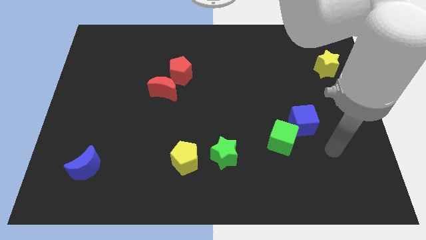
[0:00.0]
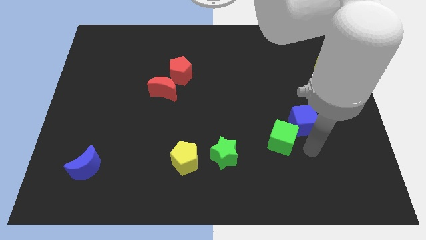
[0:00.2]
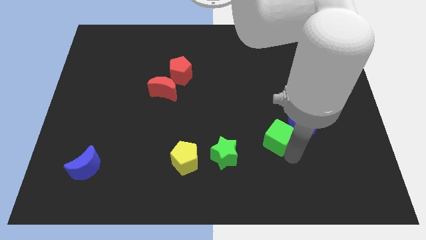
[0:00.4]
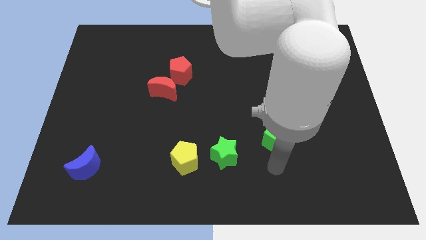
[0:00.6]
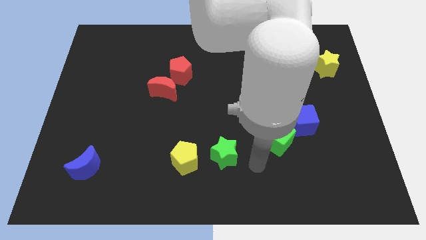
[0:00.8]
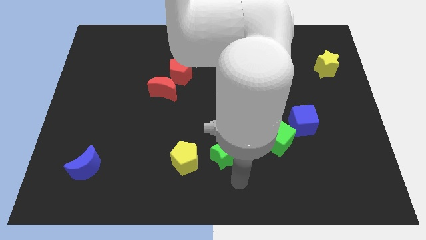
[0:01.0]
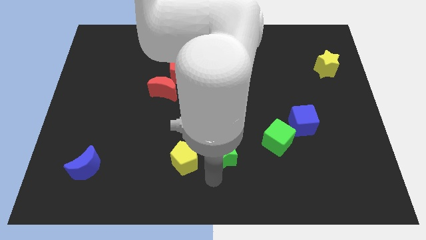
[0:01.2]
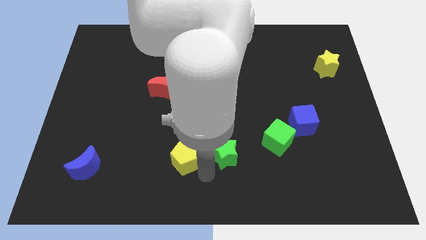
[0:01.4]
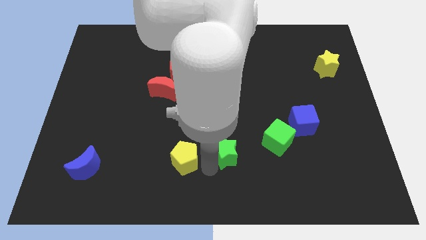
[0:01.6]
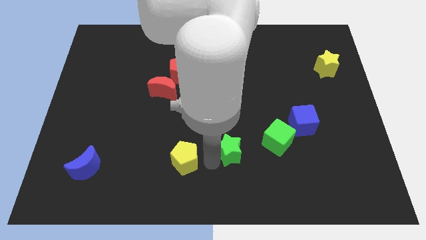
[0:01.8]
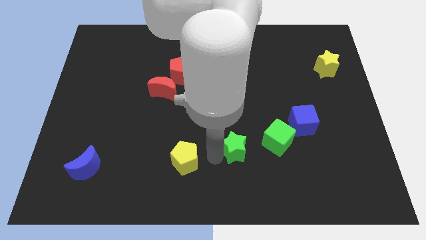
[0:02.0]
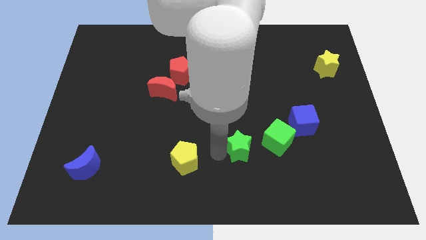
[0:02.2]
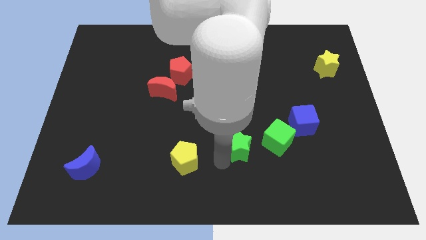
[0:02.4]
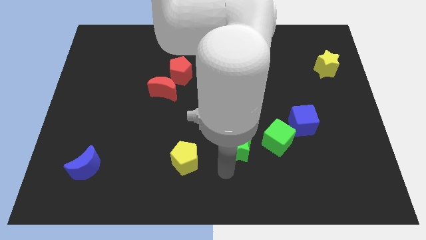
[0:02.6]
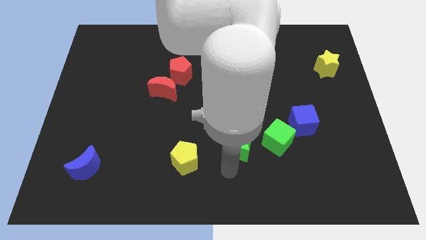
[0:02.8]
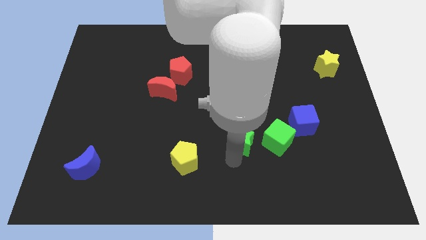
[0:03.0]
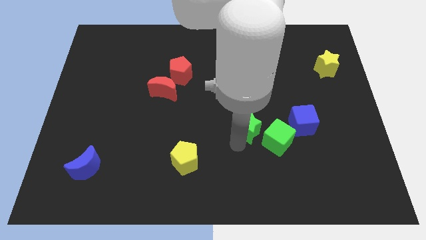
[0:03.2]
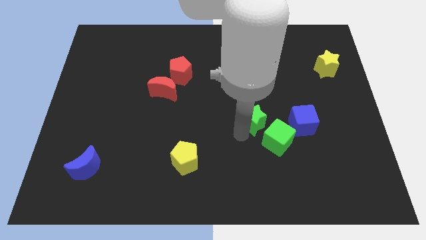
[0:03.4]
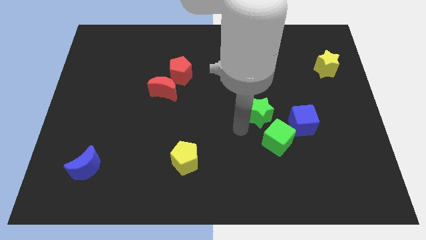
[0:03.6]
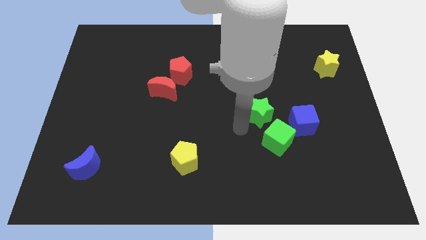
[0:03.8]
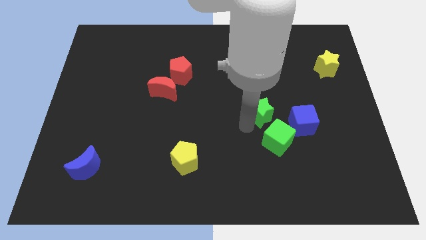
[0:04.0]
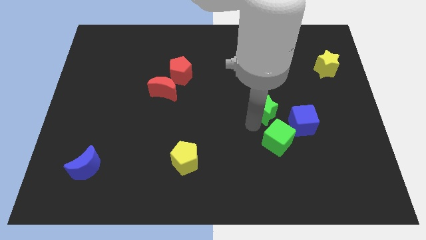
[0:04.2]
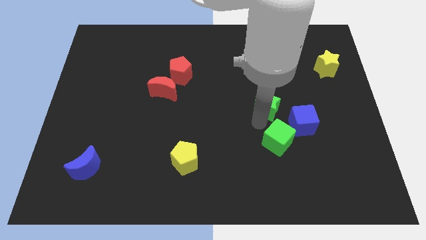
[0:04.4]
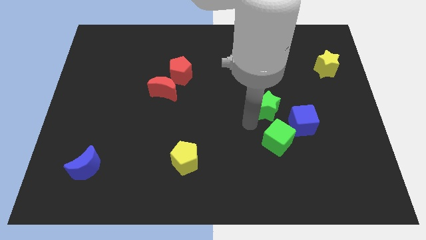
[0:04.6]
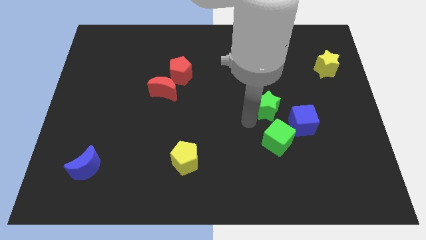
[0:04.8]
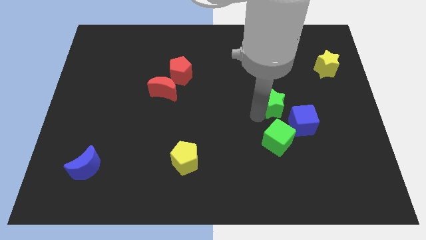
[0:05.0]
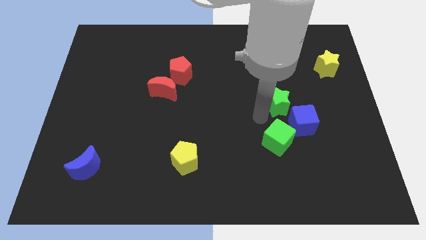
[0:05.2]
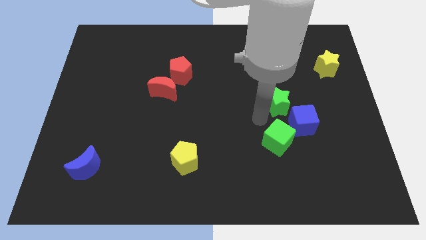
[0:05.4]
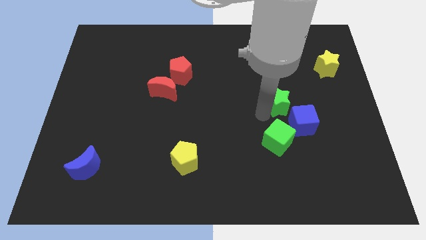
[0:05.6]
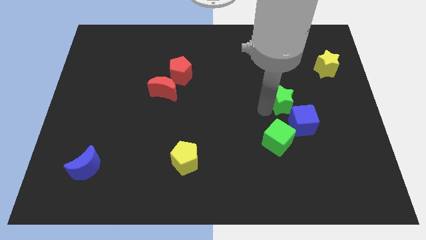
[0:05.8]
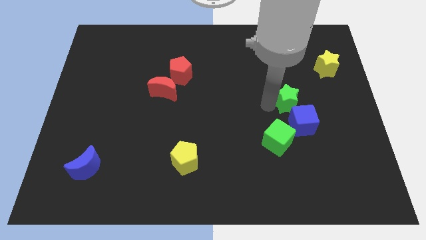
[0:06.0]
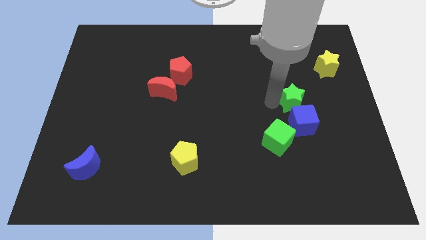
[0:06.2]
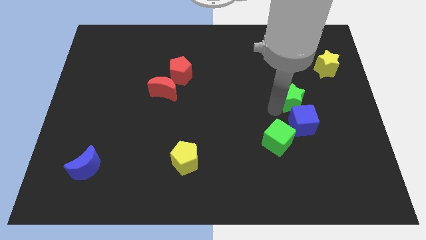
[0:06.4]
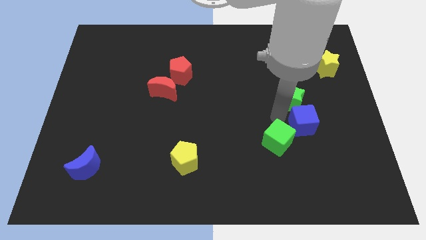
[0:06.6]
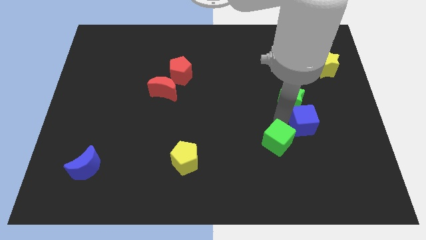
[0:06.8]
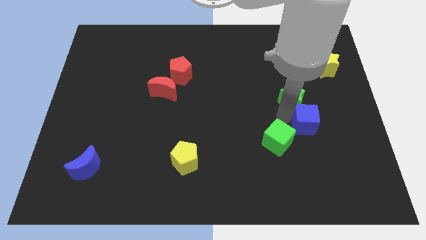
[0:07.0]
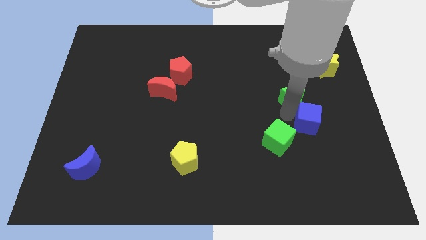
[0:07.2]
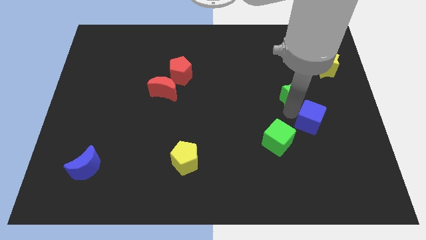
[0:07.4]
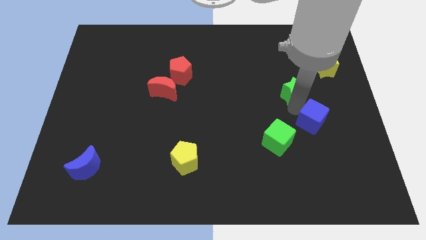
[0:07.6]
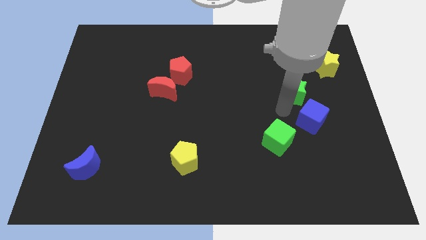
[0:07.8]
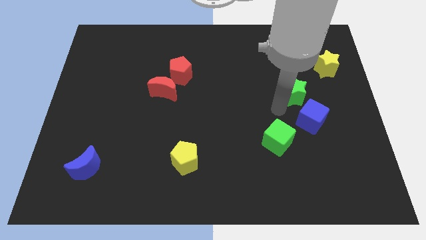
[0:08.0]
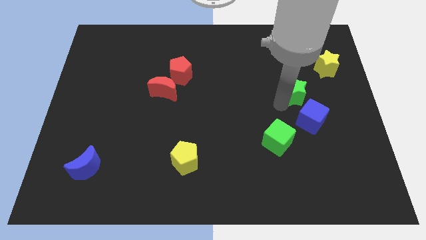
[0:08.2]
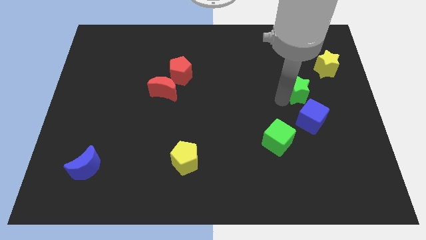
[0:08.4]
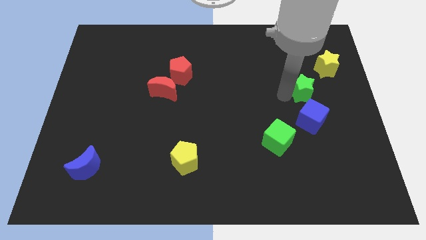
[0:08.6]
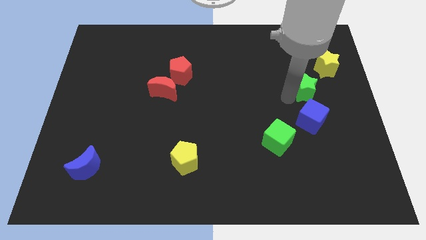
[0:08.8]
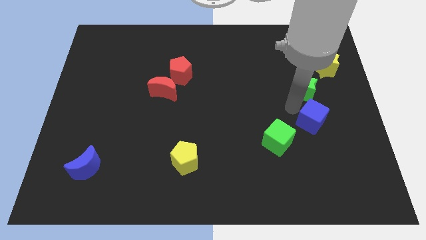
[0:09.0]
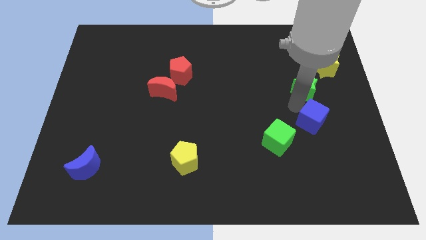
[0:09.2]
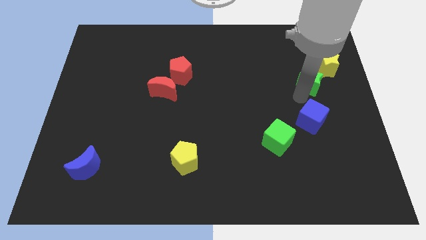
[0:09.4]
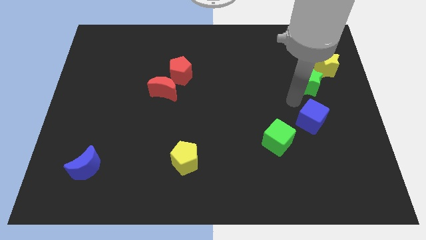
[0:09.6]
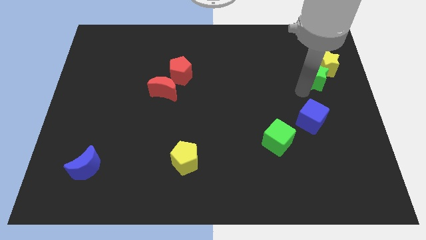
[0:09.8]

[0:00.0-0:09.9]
slide the green star close to the yellow star

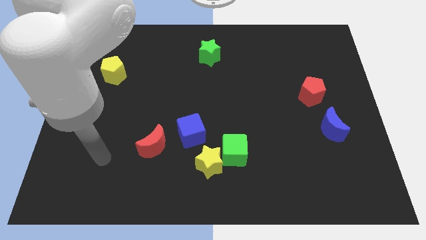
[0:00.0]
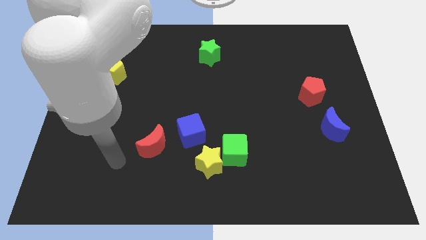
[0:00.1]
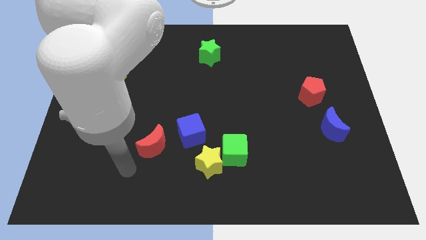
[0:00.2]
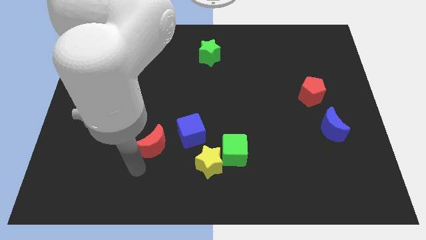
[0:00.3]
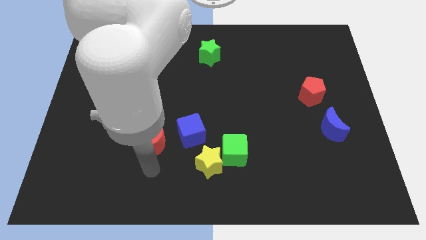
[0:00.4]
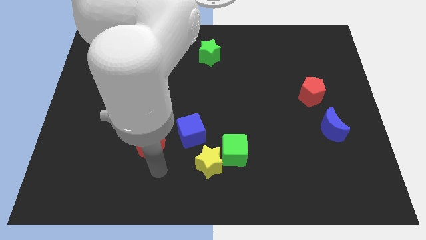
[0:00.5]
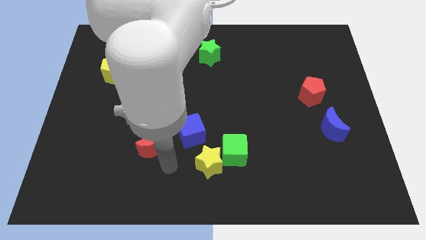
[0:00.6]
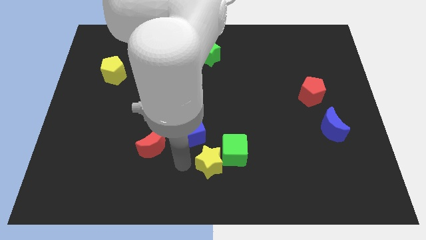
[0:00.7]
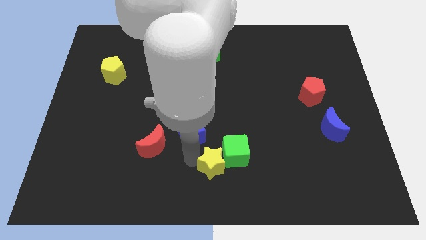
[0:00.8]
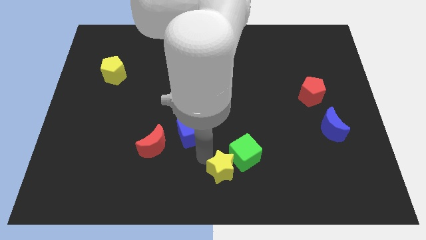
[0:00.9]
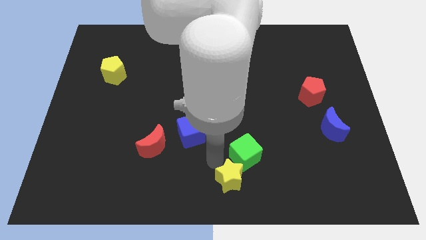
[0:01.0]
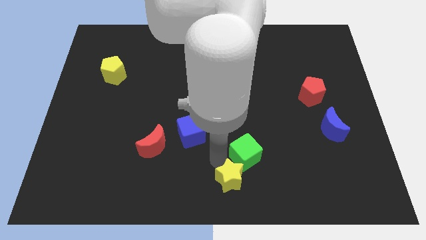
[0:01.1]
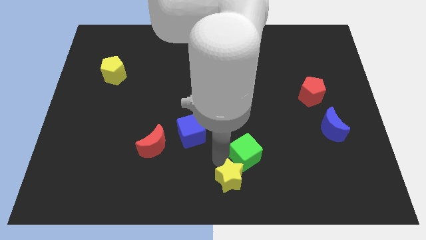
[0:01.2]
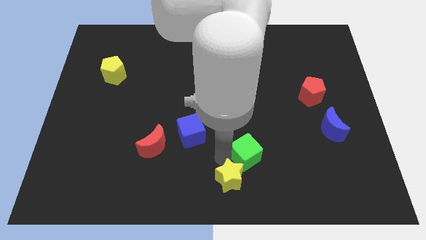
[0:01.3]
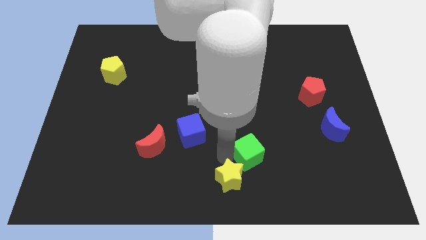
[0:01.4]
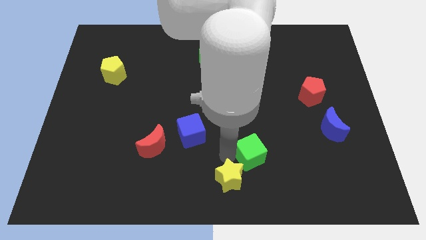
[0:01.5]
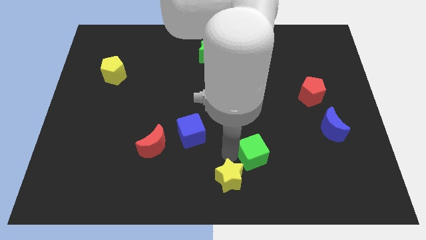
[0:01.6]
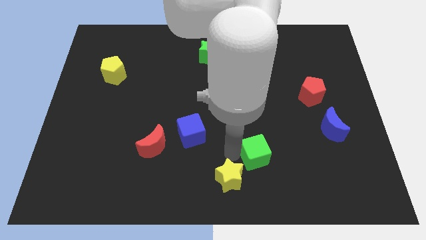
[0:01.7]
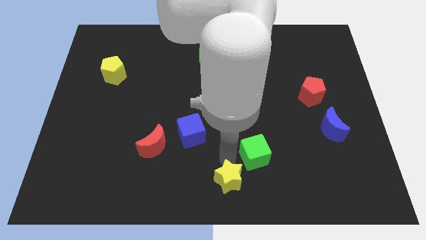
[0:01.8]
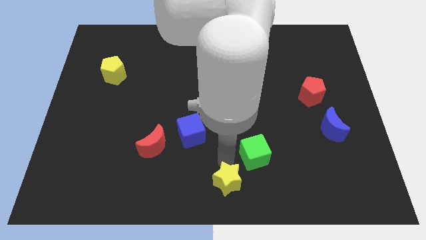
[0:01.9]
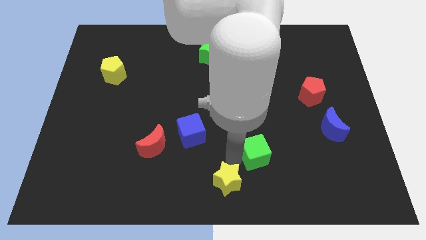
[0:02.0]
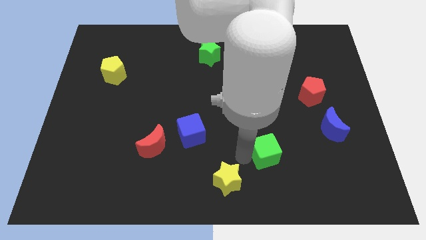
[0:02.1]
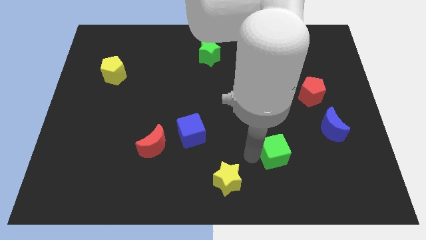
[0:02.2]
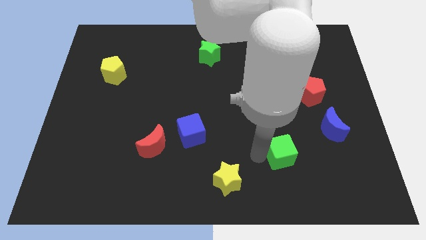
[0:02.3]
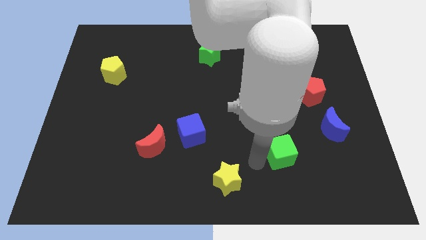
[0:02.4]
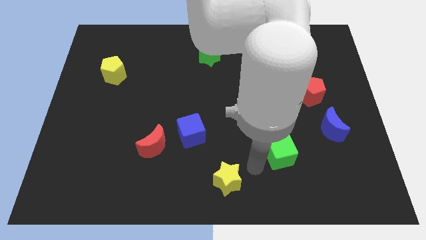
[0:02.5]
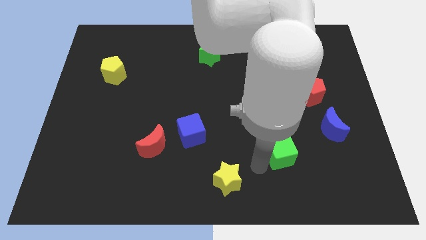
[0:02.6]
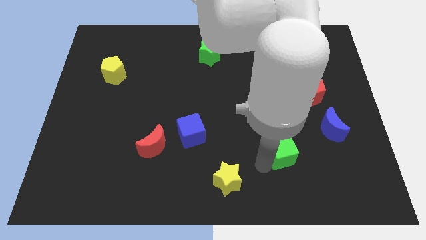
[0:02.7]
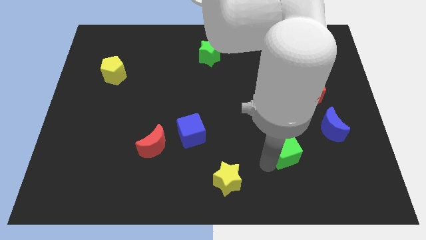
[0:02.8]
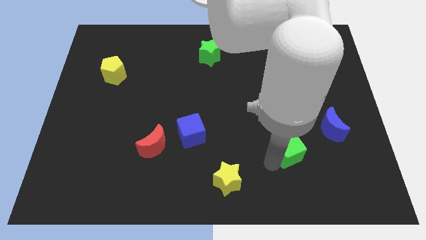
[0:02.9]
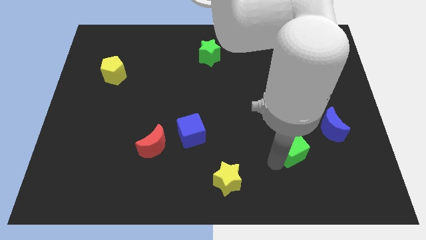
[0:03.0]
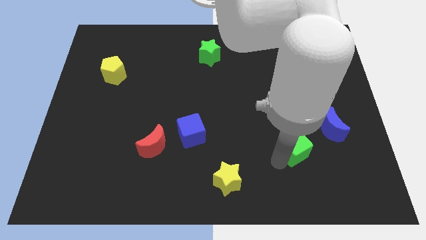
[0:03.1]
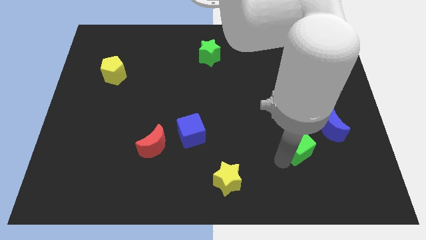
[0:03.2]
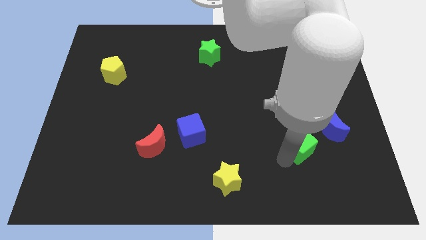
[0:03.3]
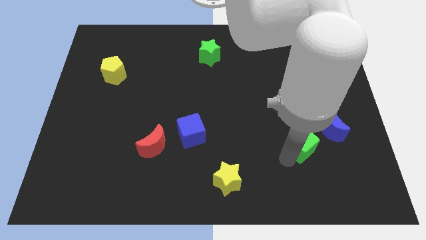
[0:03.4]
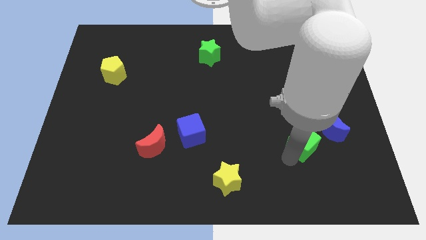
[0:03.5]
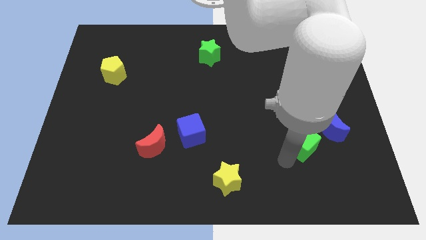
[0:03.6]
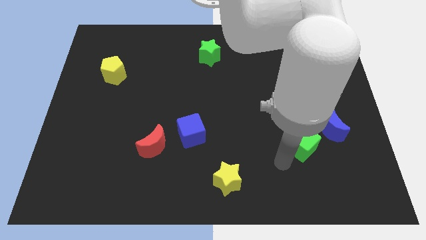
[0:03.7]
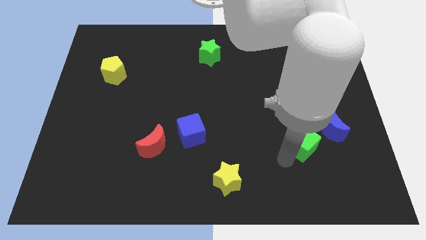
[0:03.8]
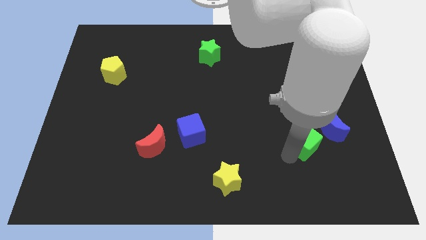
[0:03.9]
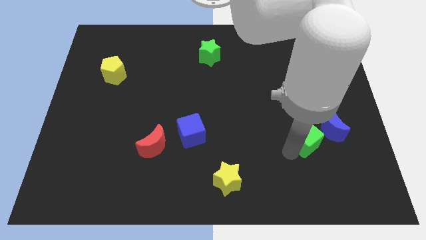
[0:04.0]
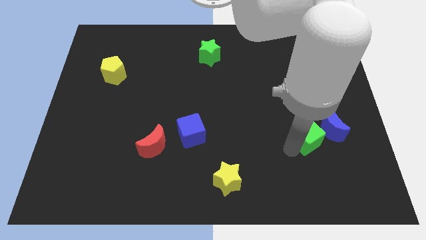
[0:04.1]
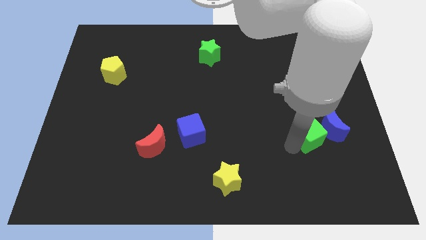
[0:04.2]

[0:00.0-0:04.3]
push the green cube towards the blue moon
